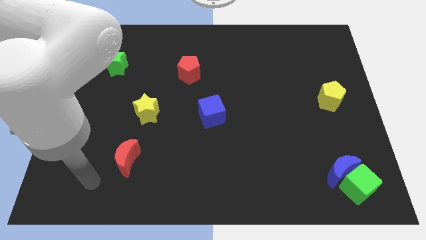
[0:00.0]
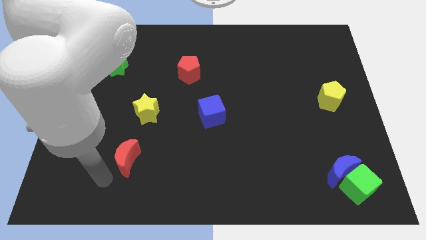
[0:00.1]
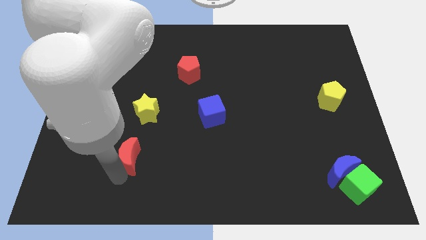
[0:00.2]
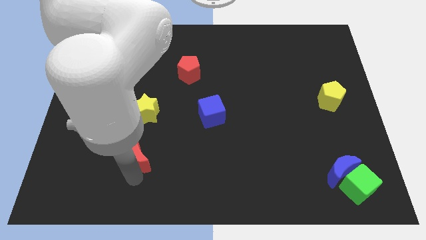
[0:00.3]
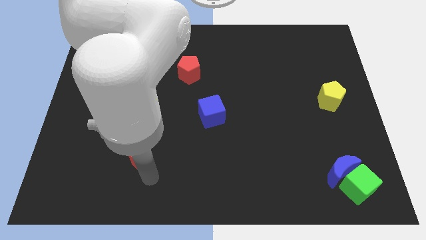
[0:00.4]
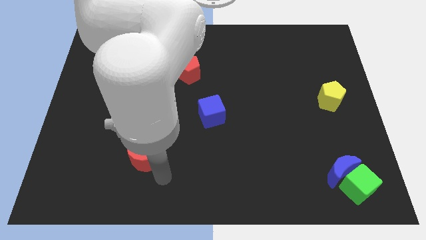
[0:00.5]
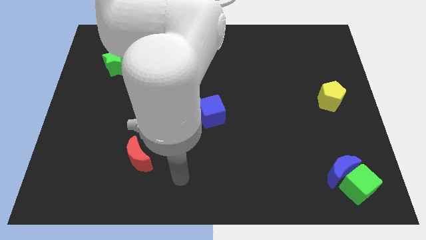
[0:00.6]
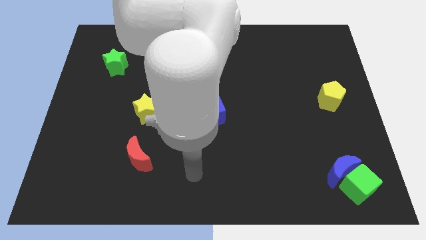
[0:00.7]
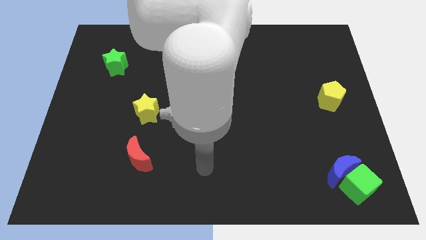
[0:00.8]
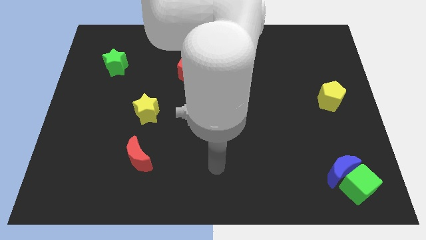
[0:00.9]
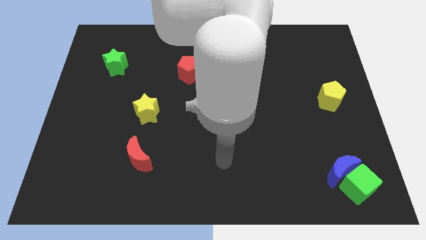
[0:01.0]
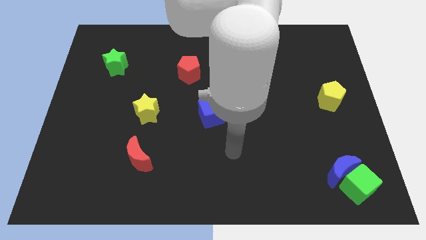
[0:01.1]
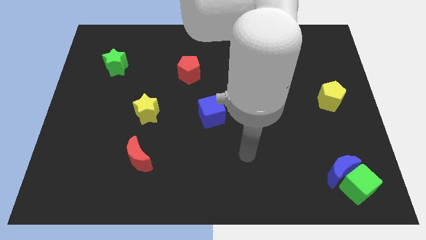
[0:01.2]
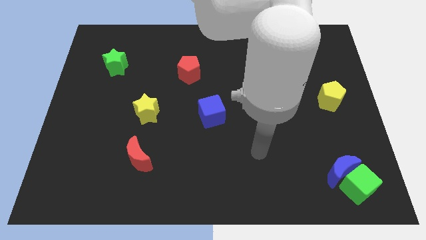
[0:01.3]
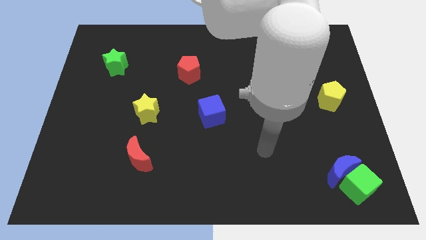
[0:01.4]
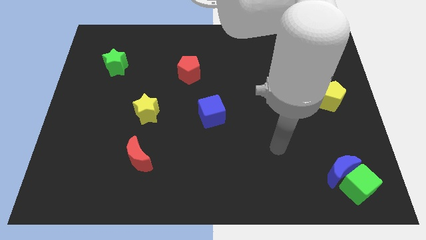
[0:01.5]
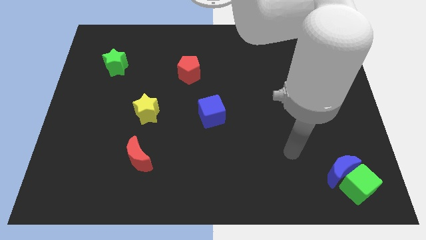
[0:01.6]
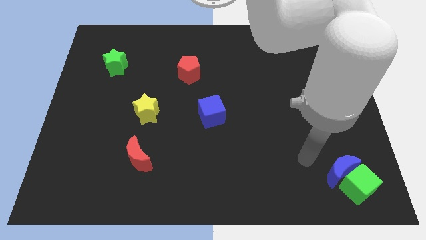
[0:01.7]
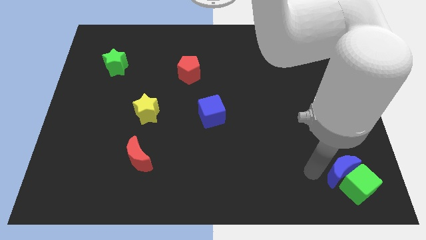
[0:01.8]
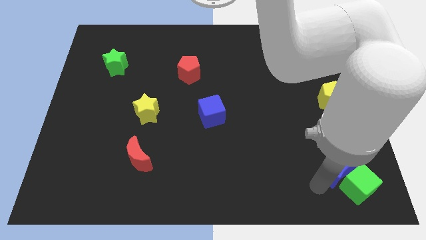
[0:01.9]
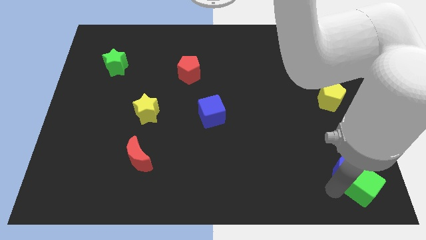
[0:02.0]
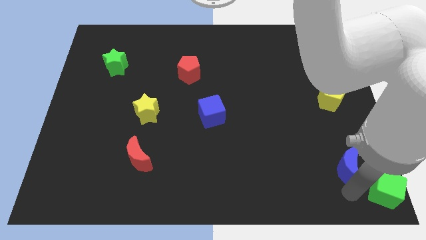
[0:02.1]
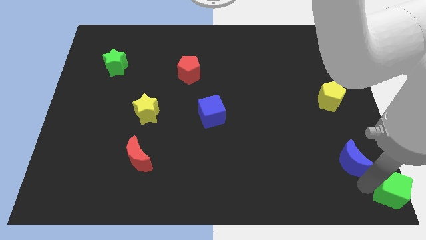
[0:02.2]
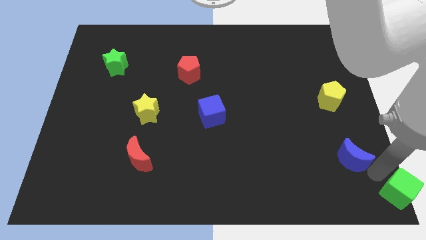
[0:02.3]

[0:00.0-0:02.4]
move the blue moon away from the green cube

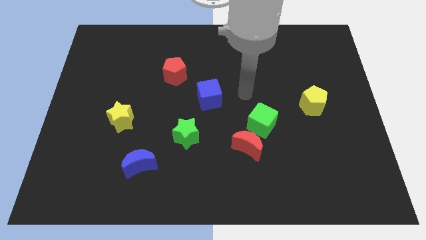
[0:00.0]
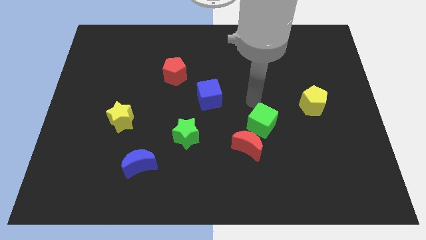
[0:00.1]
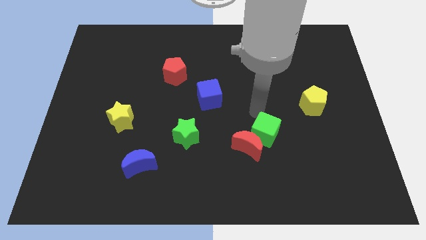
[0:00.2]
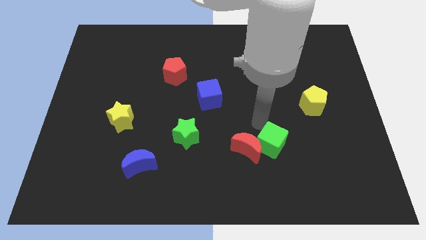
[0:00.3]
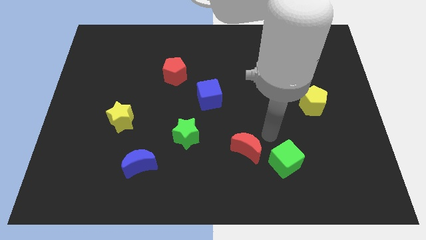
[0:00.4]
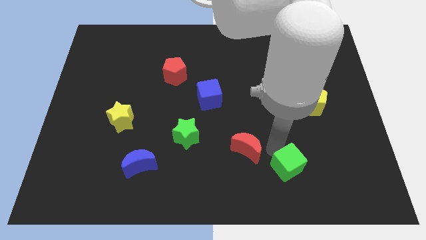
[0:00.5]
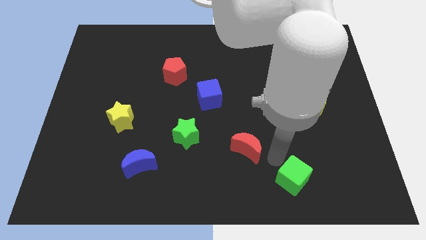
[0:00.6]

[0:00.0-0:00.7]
pull the red moon apart from the green cube

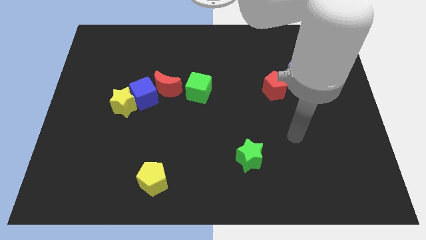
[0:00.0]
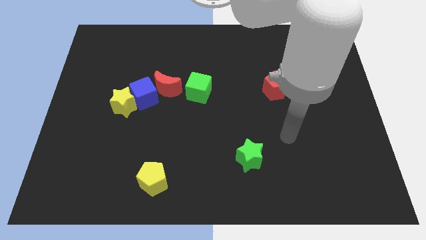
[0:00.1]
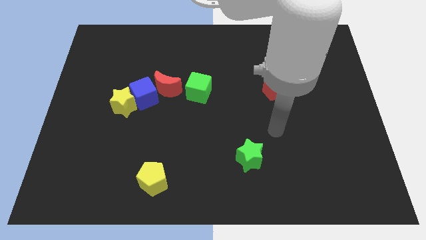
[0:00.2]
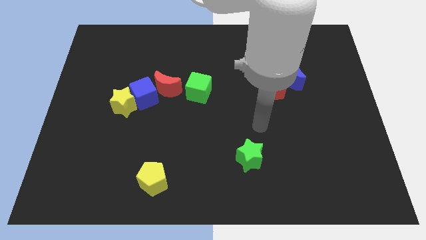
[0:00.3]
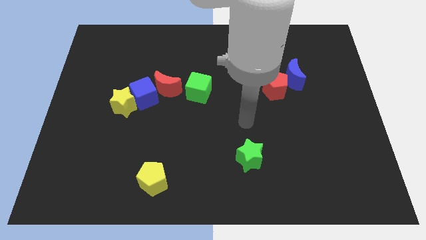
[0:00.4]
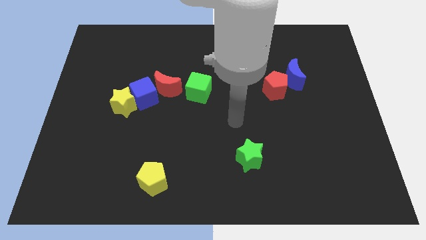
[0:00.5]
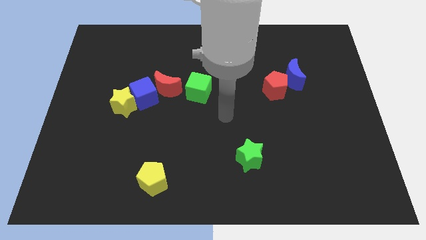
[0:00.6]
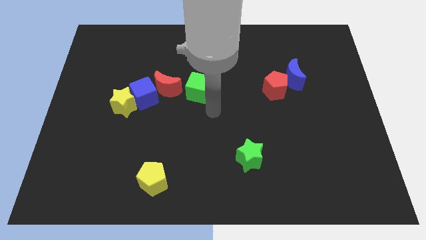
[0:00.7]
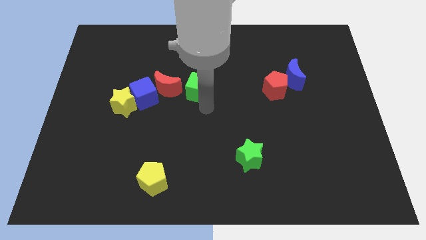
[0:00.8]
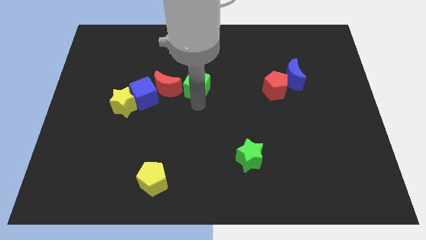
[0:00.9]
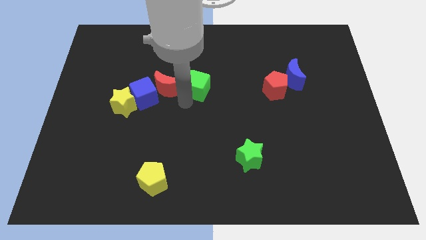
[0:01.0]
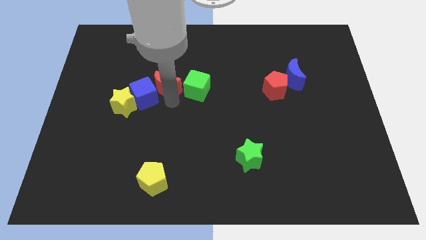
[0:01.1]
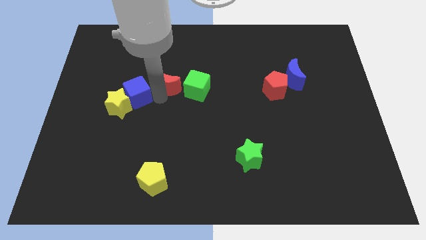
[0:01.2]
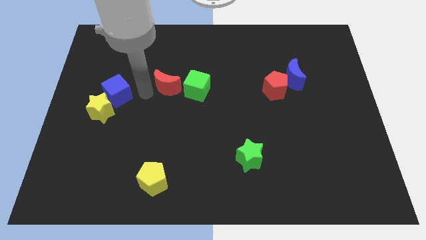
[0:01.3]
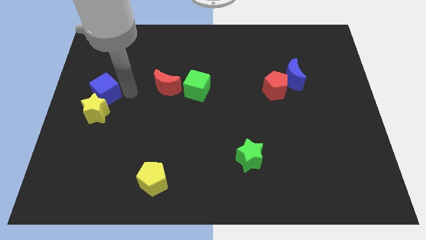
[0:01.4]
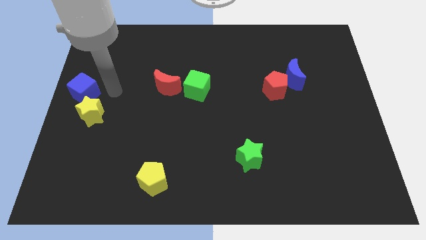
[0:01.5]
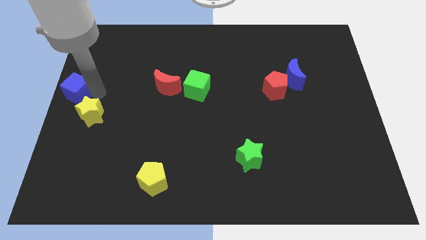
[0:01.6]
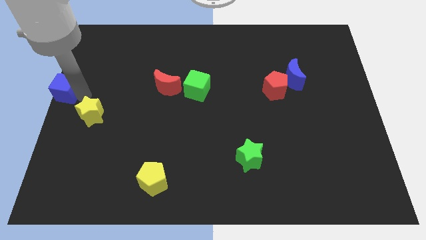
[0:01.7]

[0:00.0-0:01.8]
pull the yellow star apart from the blue cube

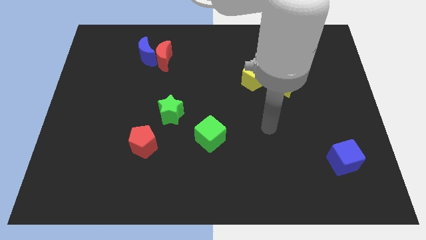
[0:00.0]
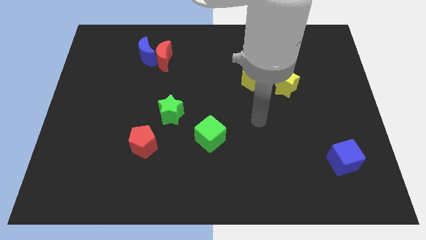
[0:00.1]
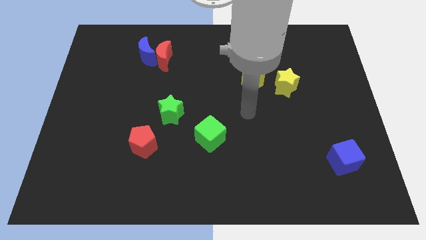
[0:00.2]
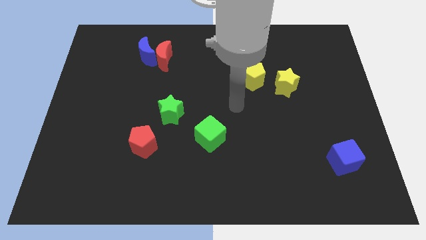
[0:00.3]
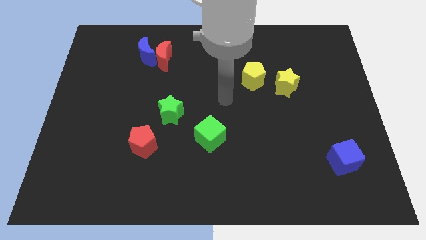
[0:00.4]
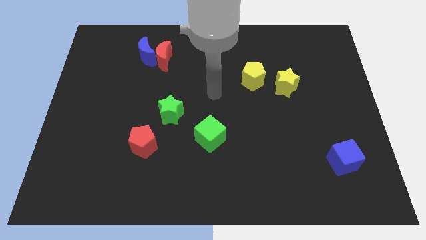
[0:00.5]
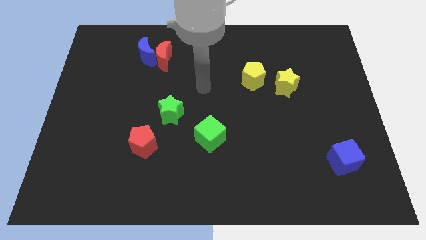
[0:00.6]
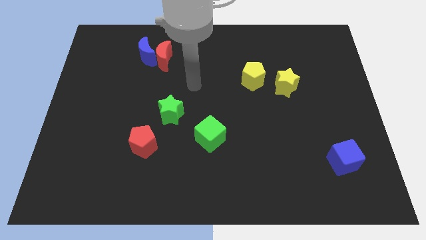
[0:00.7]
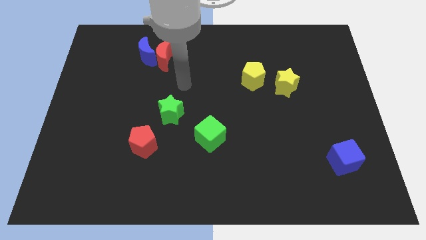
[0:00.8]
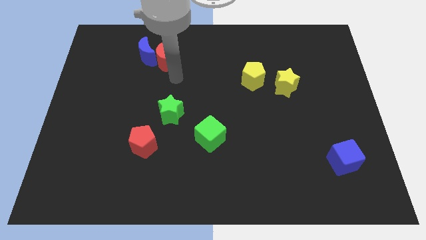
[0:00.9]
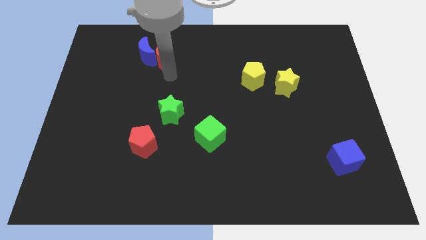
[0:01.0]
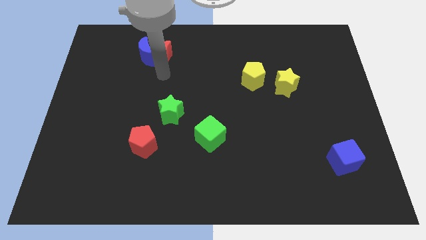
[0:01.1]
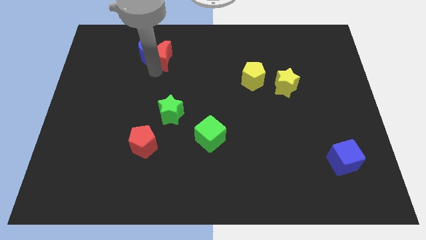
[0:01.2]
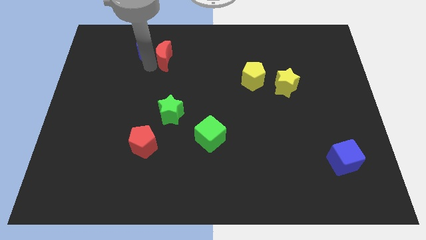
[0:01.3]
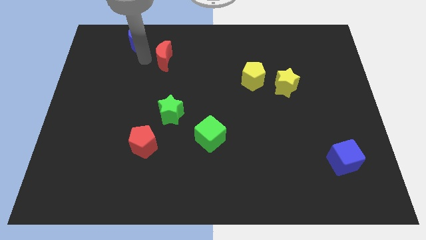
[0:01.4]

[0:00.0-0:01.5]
move the red moon away from the blue moon

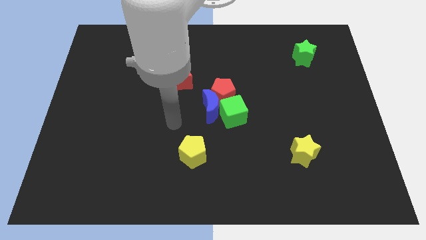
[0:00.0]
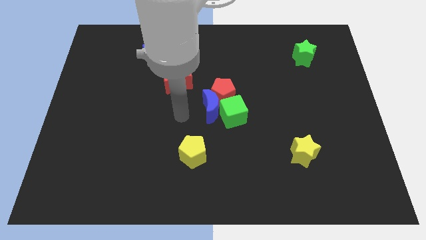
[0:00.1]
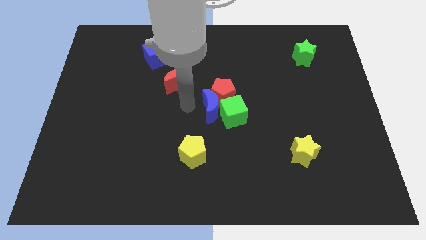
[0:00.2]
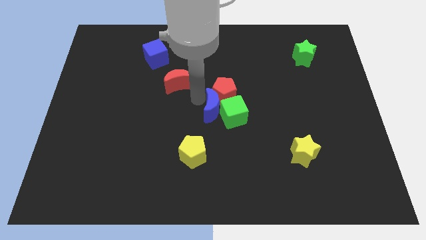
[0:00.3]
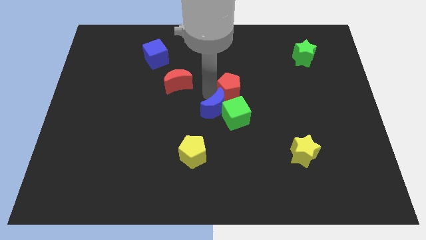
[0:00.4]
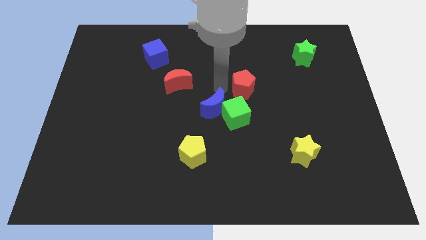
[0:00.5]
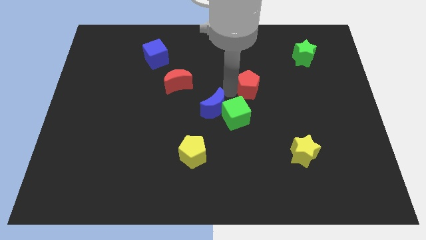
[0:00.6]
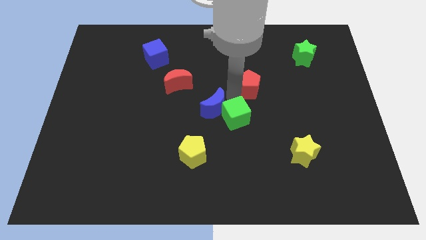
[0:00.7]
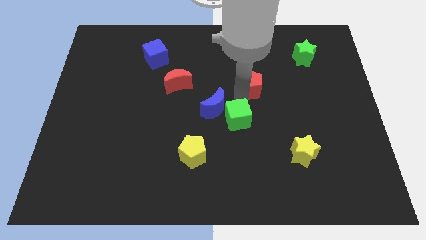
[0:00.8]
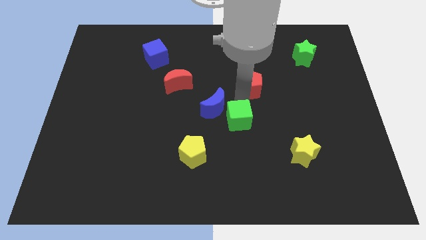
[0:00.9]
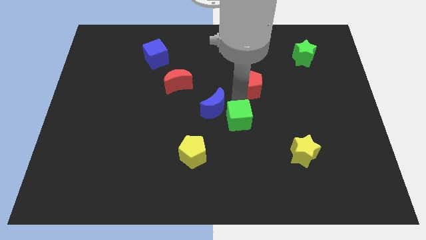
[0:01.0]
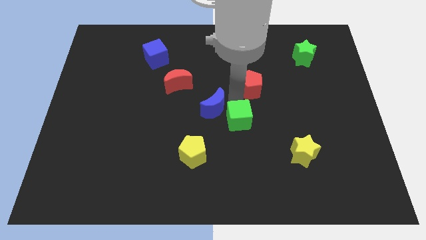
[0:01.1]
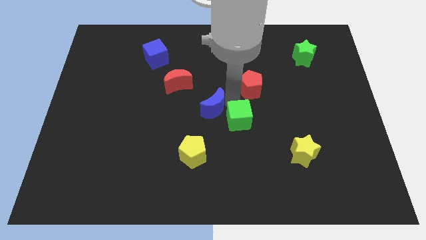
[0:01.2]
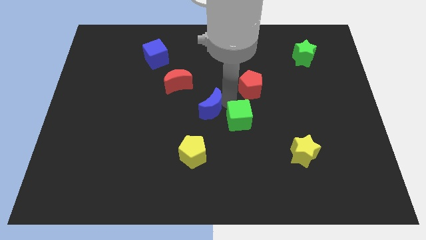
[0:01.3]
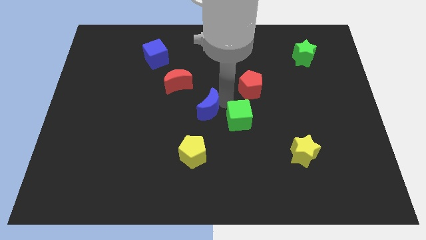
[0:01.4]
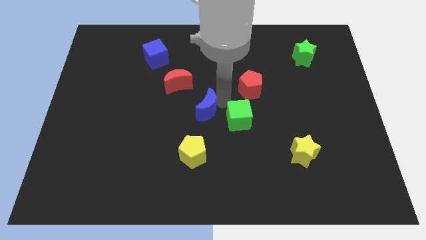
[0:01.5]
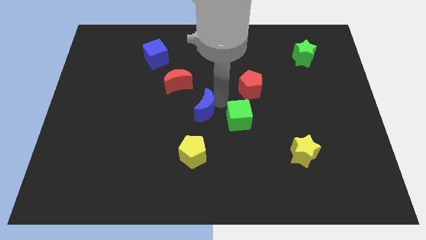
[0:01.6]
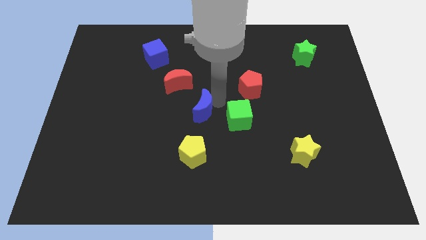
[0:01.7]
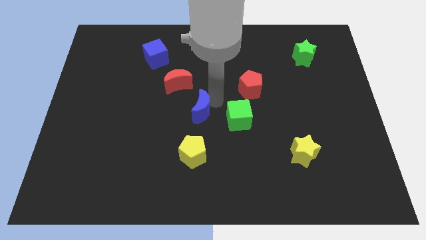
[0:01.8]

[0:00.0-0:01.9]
pull the blue moon apart from the red pentagon and green cube

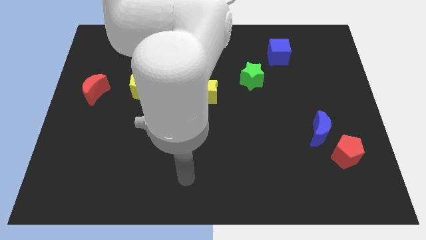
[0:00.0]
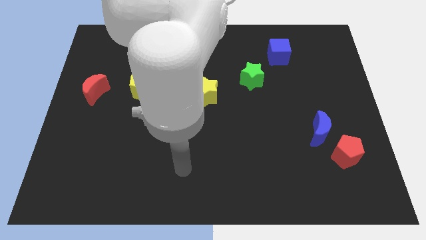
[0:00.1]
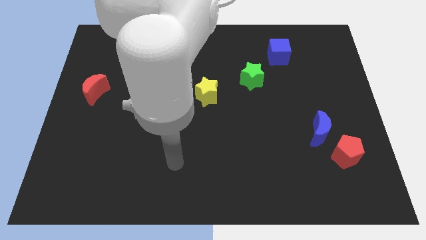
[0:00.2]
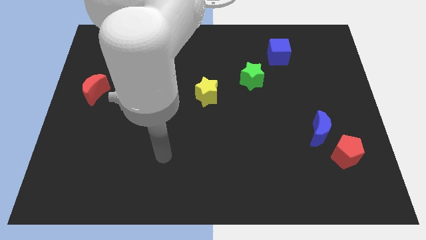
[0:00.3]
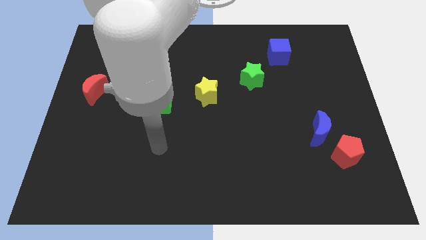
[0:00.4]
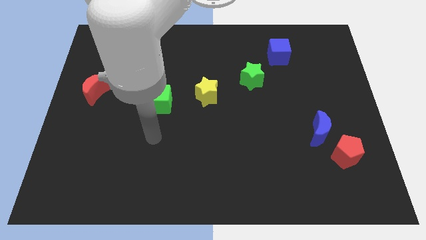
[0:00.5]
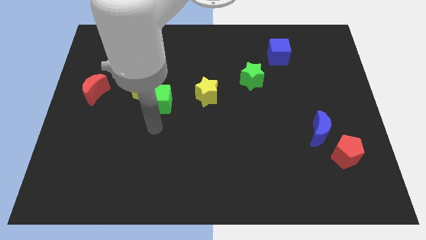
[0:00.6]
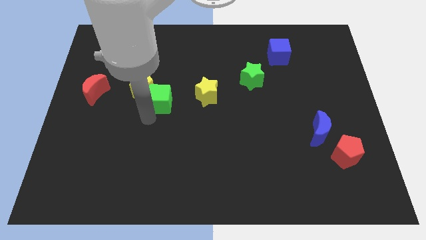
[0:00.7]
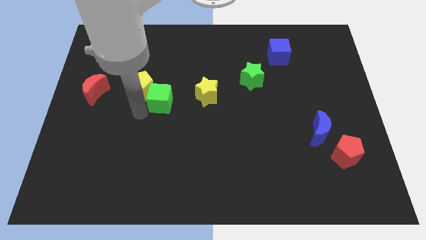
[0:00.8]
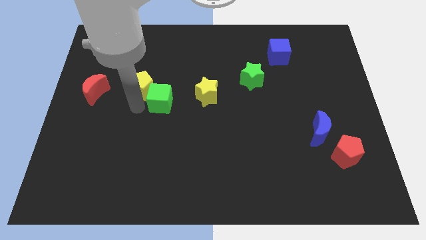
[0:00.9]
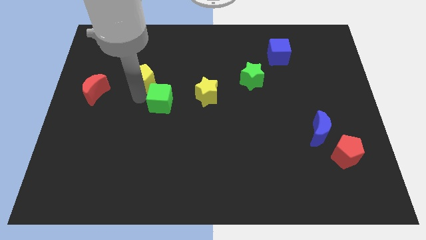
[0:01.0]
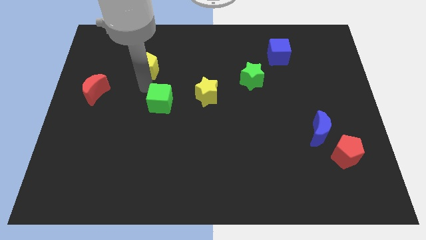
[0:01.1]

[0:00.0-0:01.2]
move the green cube away from the yellow pentagon
